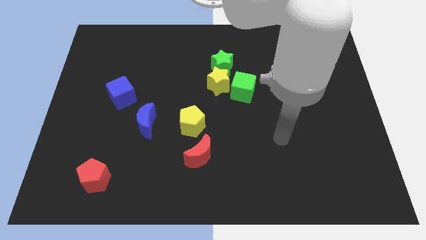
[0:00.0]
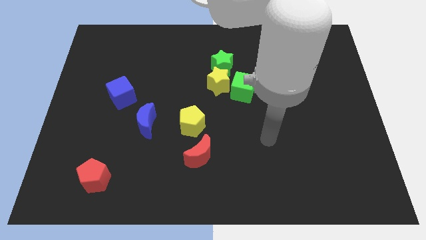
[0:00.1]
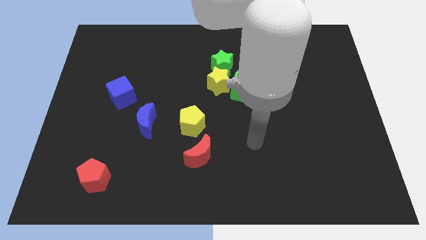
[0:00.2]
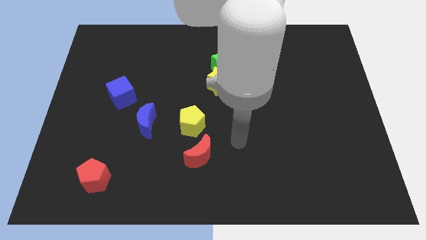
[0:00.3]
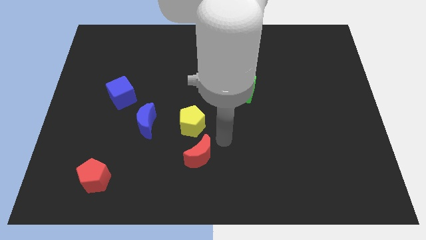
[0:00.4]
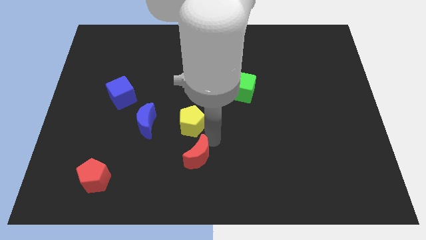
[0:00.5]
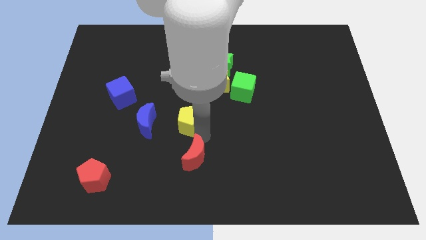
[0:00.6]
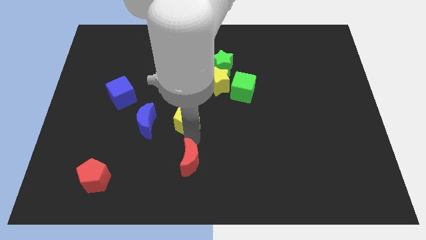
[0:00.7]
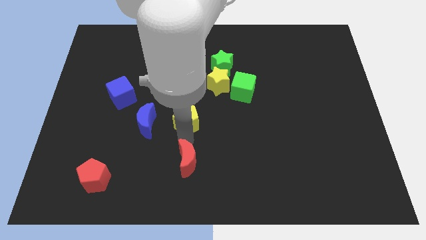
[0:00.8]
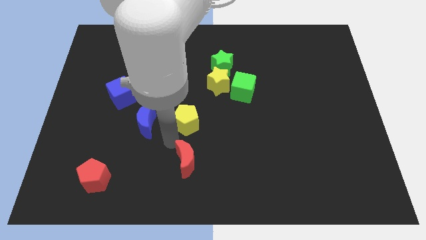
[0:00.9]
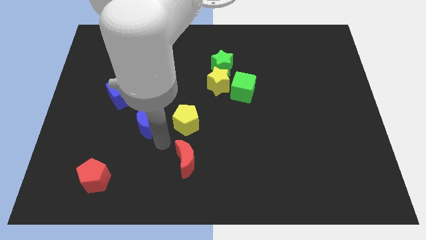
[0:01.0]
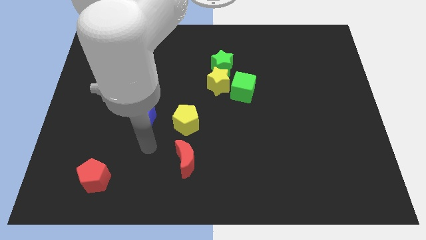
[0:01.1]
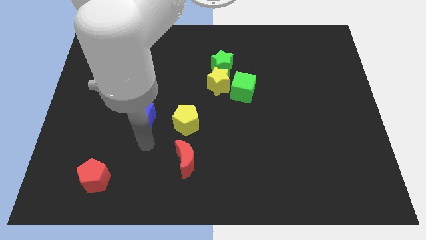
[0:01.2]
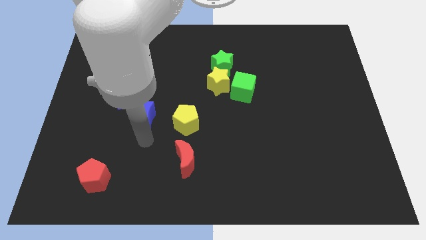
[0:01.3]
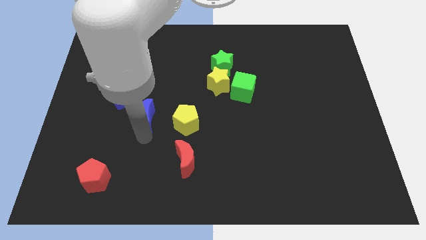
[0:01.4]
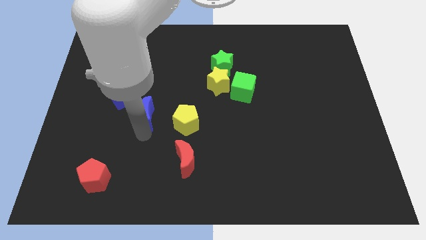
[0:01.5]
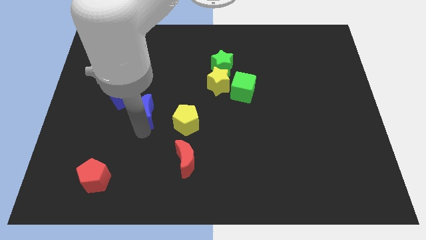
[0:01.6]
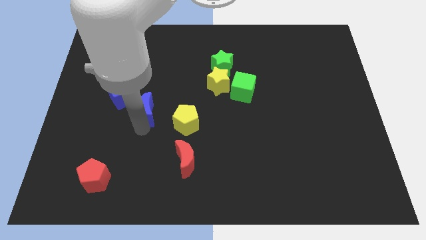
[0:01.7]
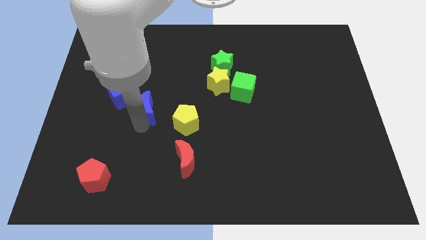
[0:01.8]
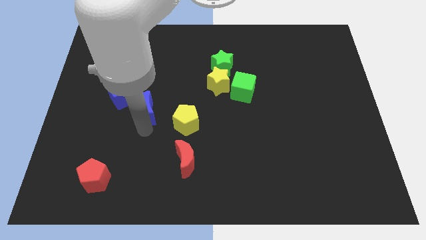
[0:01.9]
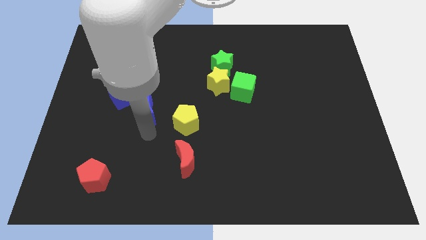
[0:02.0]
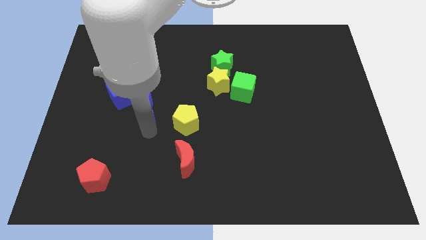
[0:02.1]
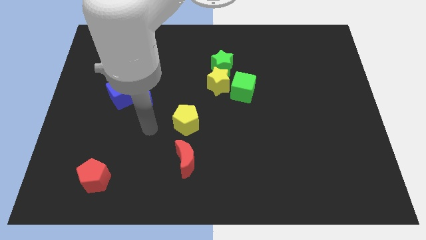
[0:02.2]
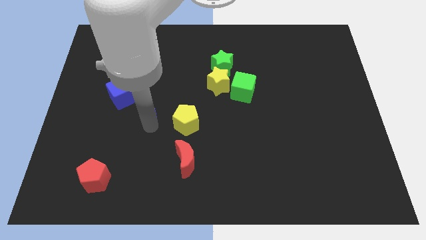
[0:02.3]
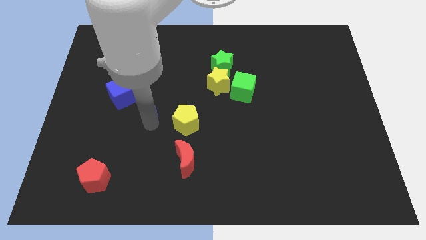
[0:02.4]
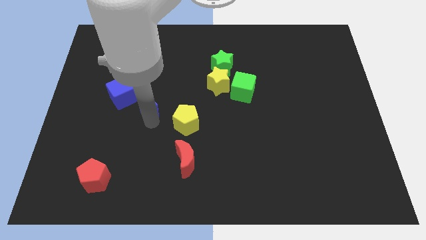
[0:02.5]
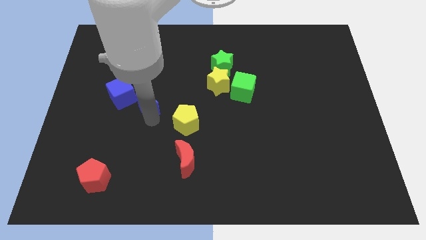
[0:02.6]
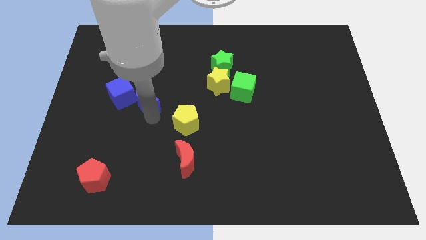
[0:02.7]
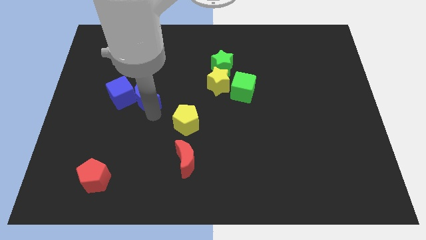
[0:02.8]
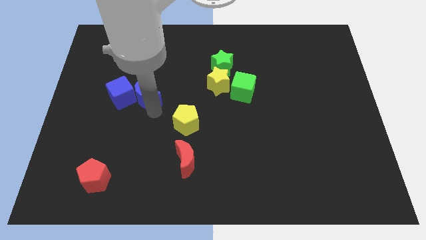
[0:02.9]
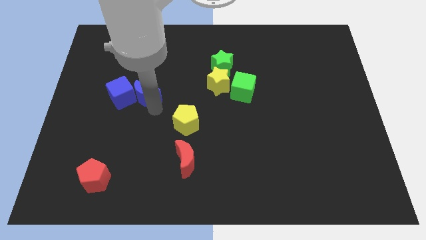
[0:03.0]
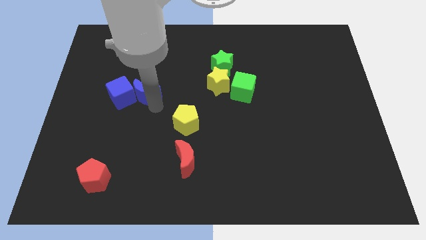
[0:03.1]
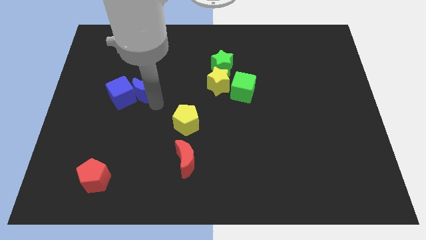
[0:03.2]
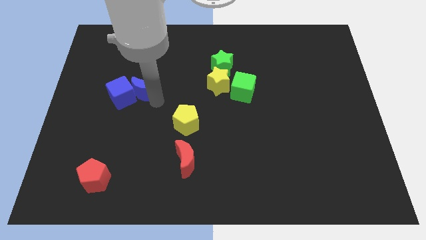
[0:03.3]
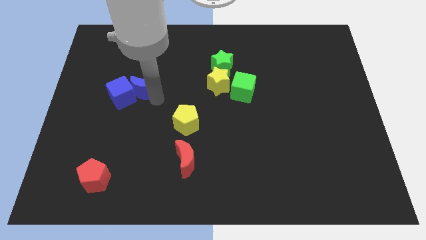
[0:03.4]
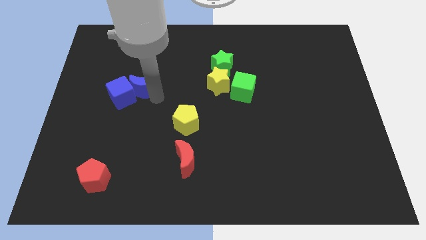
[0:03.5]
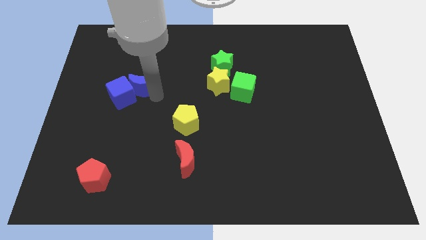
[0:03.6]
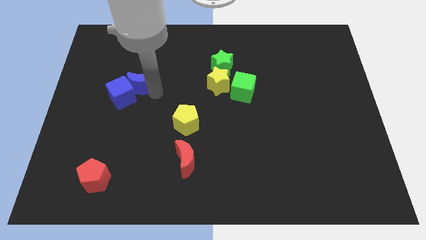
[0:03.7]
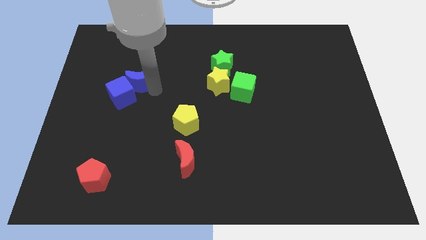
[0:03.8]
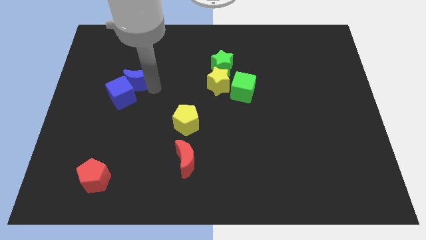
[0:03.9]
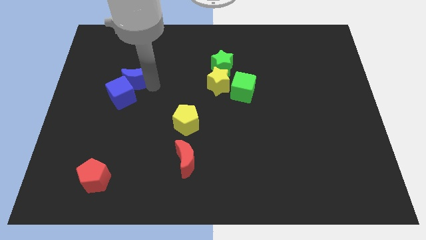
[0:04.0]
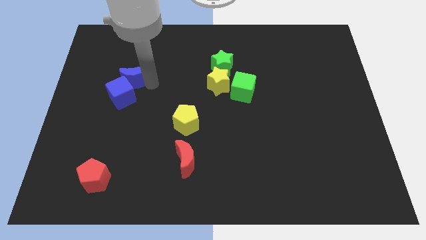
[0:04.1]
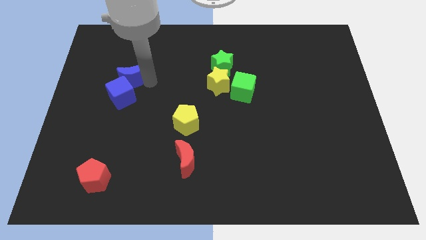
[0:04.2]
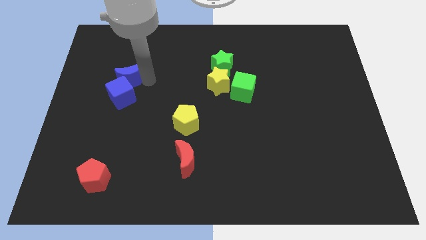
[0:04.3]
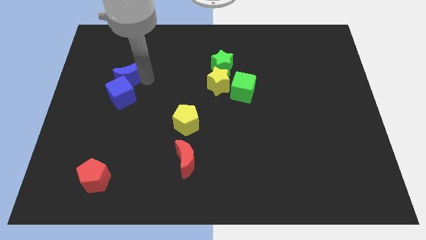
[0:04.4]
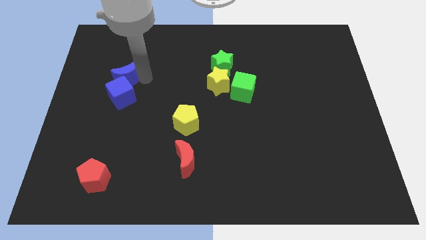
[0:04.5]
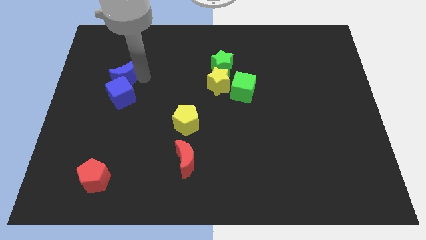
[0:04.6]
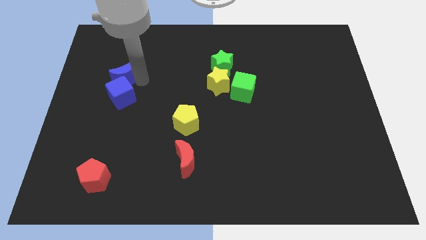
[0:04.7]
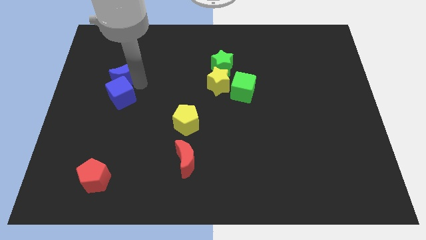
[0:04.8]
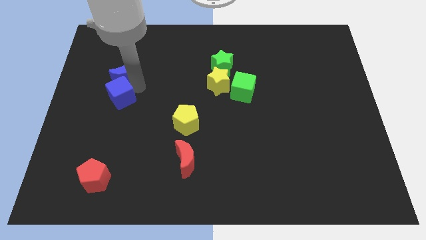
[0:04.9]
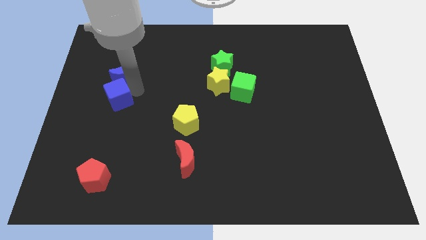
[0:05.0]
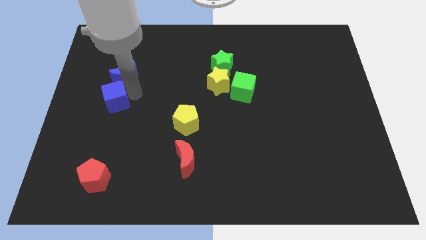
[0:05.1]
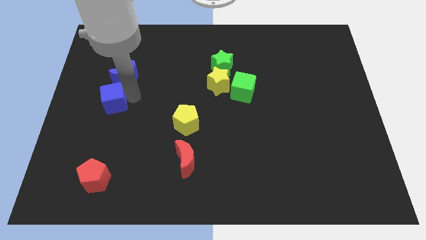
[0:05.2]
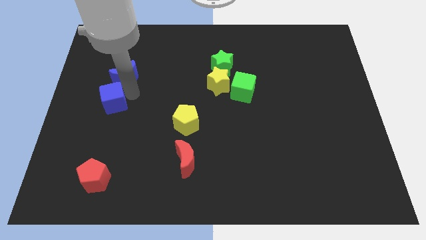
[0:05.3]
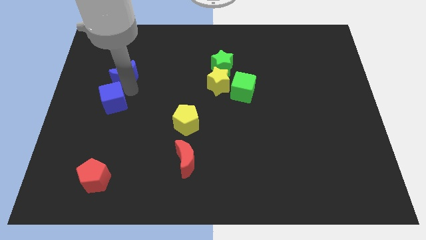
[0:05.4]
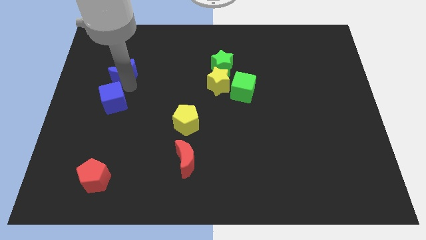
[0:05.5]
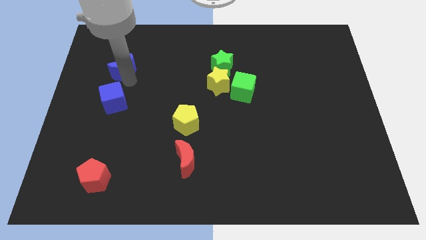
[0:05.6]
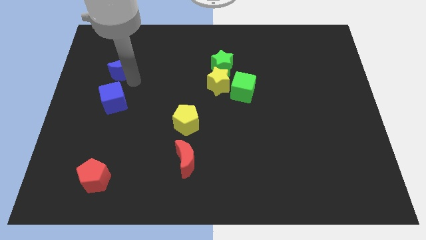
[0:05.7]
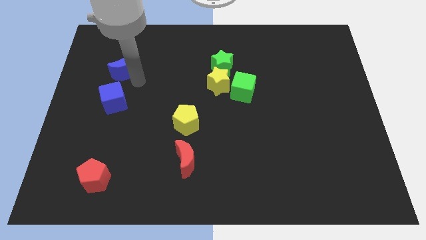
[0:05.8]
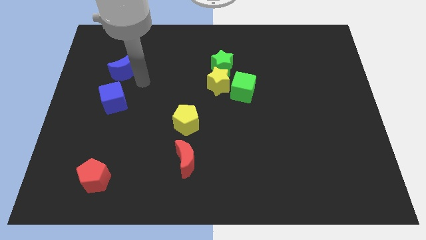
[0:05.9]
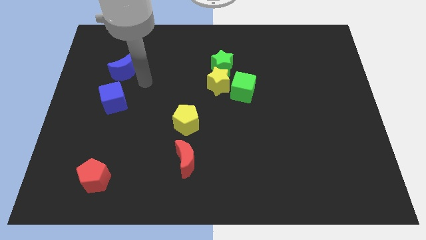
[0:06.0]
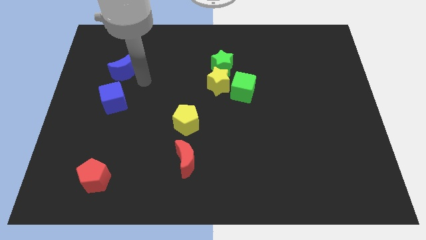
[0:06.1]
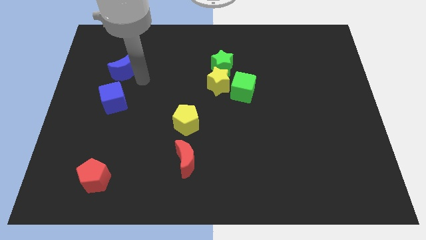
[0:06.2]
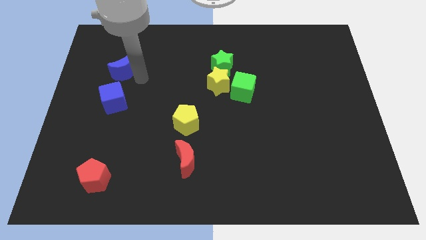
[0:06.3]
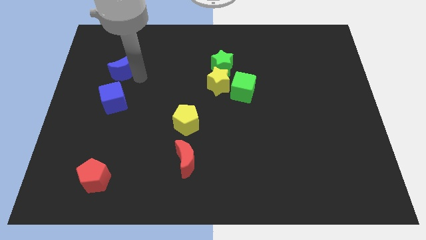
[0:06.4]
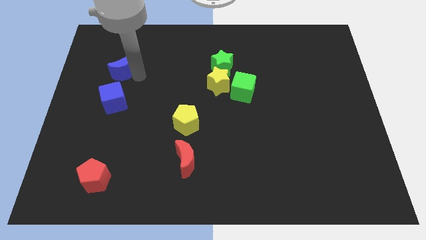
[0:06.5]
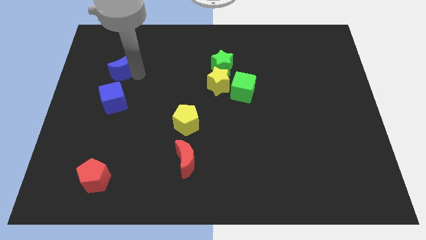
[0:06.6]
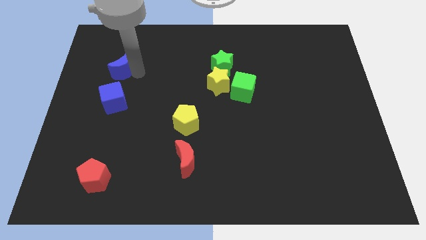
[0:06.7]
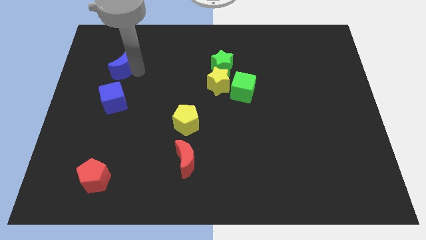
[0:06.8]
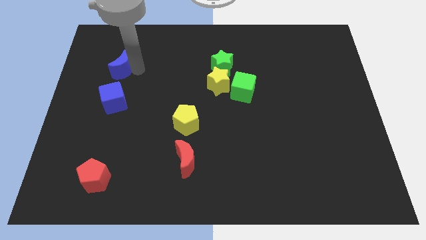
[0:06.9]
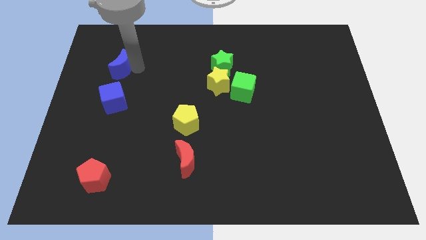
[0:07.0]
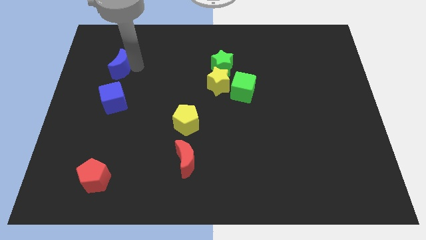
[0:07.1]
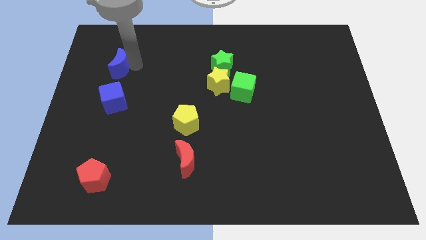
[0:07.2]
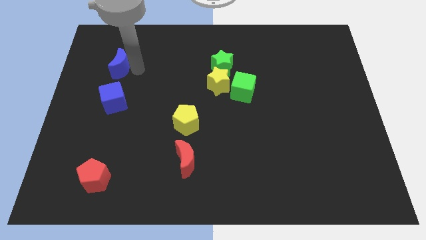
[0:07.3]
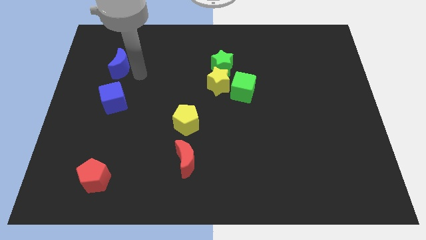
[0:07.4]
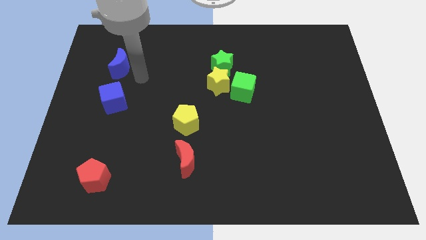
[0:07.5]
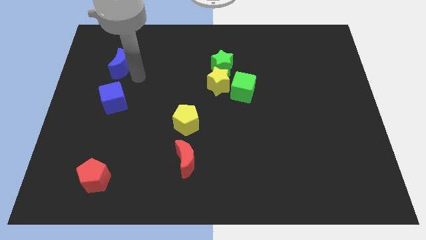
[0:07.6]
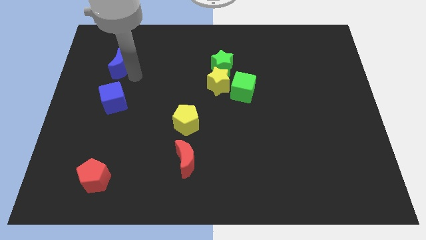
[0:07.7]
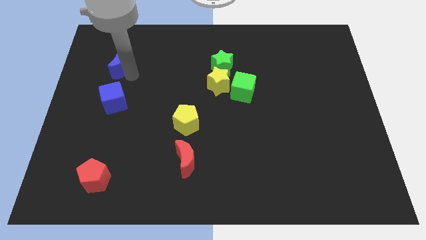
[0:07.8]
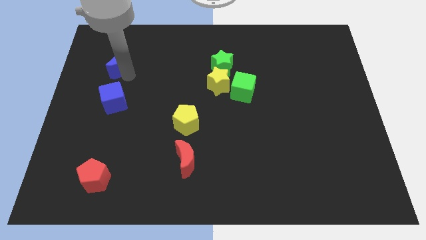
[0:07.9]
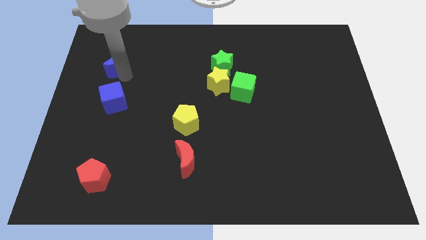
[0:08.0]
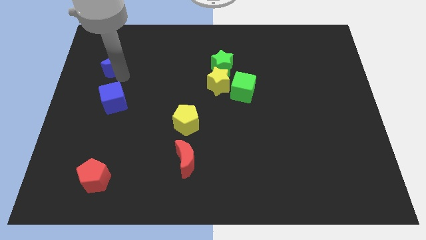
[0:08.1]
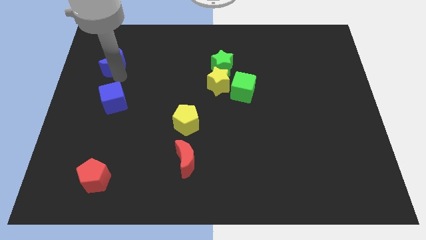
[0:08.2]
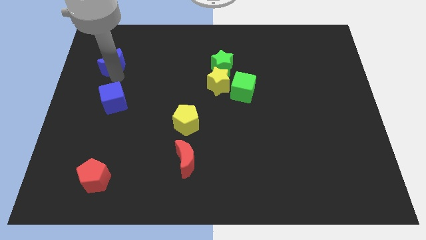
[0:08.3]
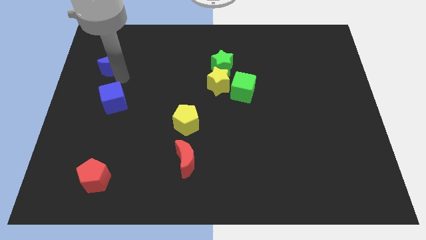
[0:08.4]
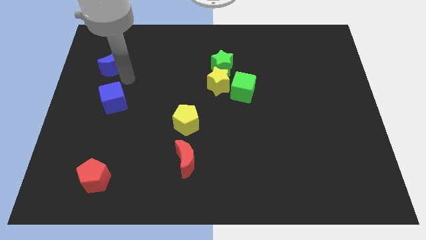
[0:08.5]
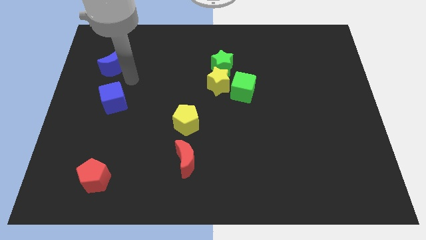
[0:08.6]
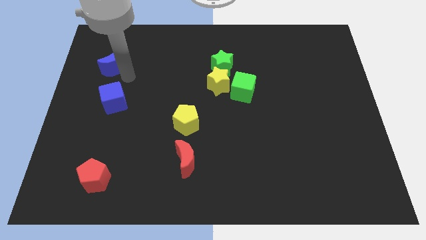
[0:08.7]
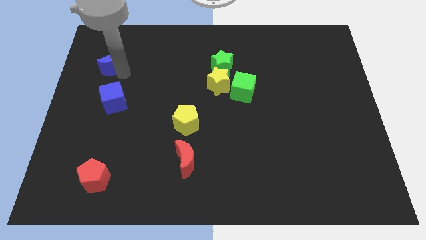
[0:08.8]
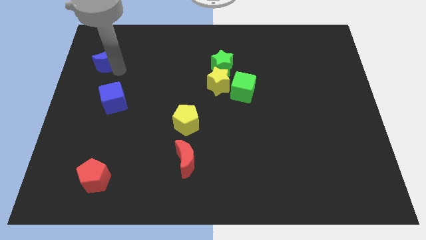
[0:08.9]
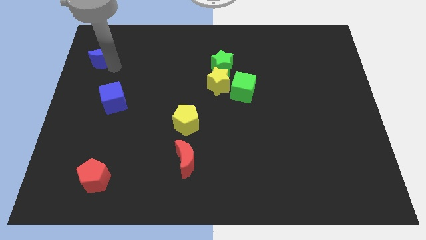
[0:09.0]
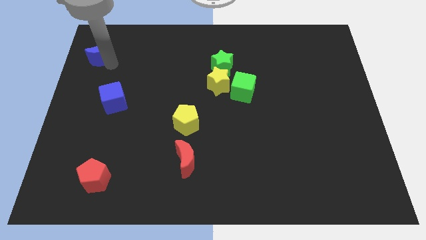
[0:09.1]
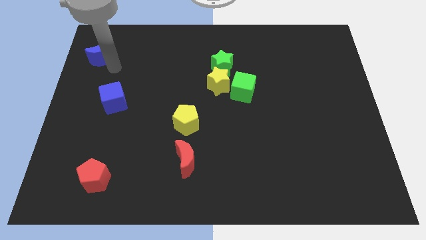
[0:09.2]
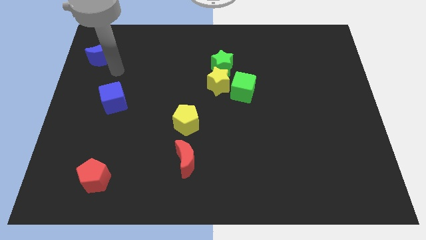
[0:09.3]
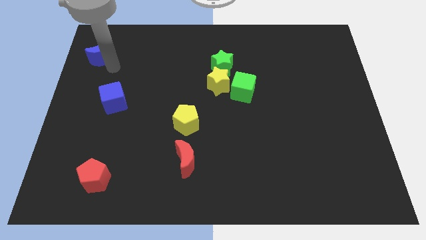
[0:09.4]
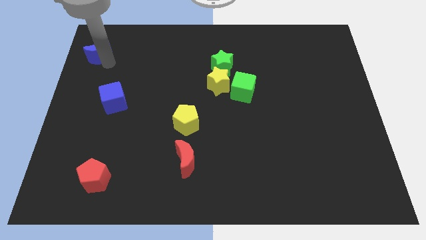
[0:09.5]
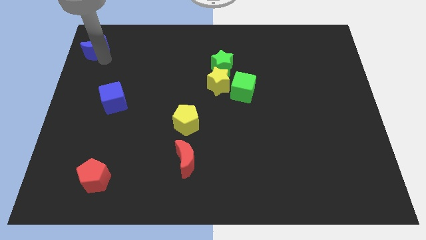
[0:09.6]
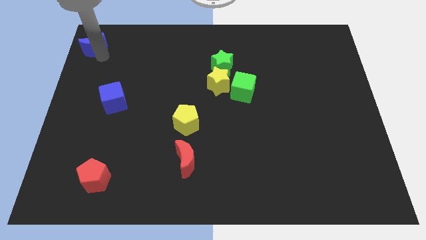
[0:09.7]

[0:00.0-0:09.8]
push the blue moon to the top left of the board
